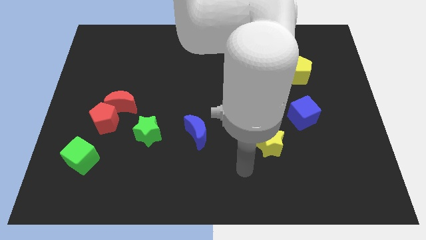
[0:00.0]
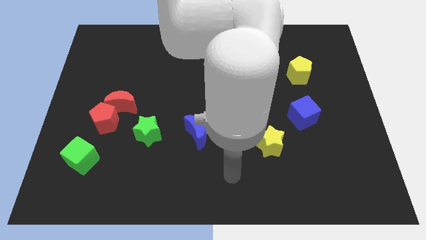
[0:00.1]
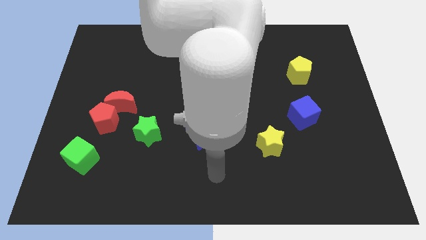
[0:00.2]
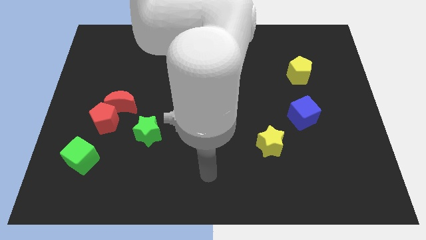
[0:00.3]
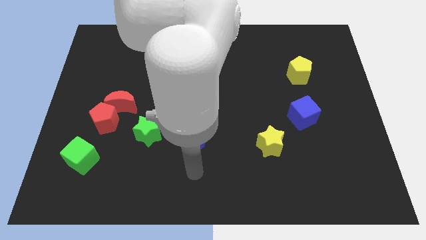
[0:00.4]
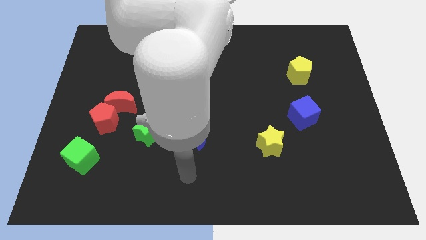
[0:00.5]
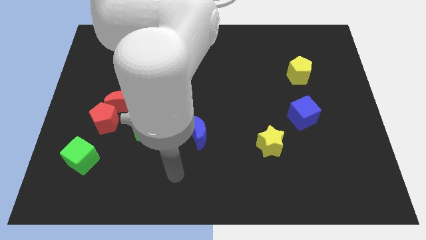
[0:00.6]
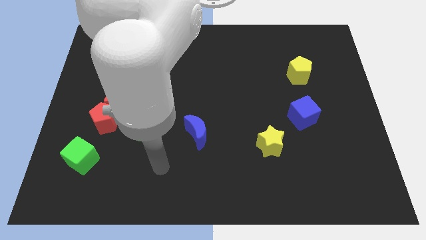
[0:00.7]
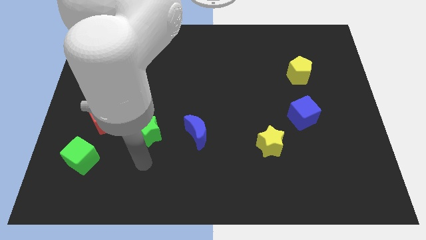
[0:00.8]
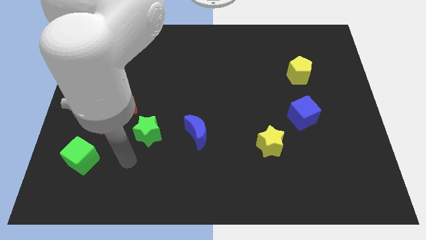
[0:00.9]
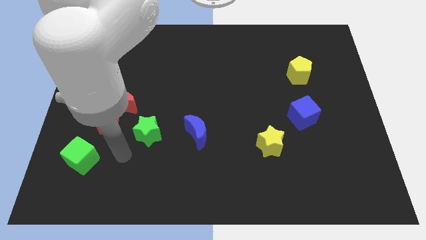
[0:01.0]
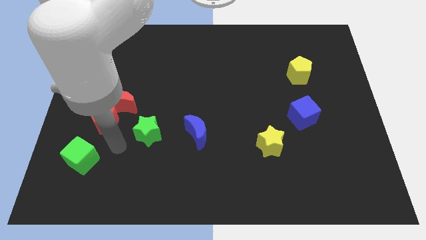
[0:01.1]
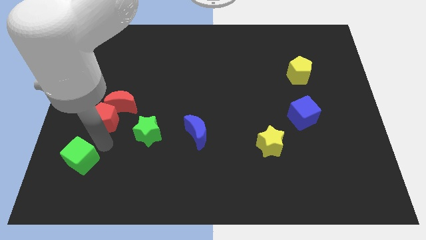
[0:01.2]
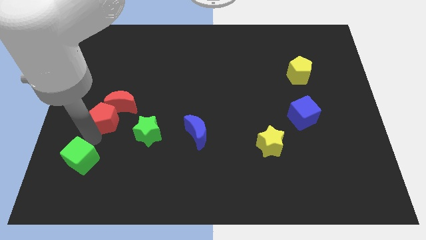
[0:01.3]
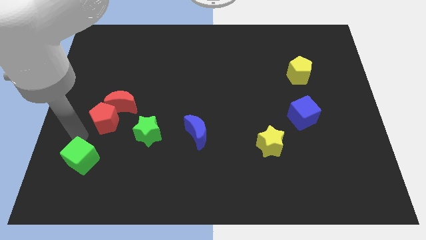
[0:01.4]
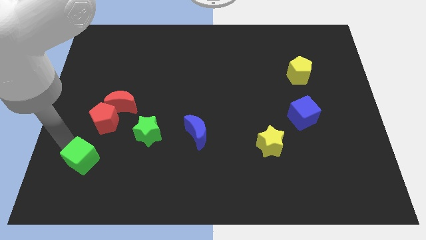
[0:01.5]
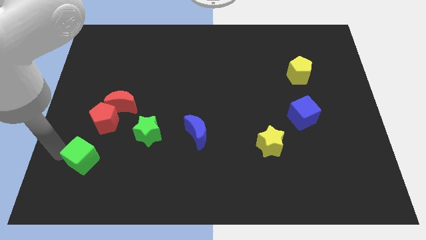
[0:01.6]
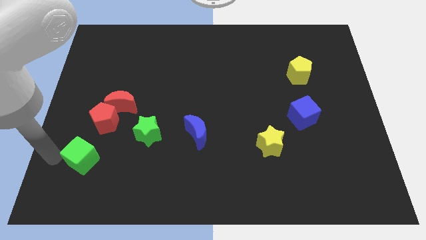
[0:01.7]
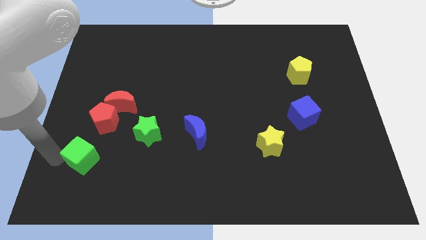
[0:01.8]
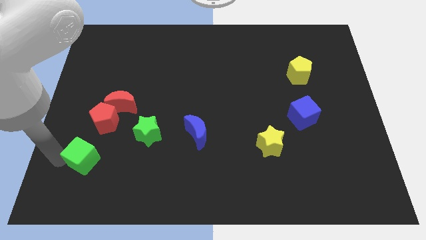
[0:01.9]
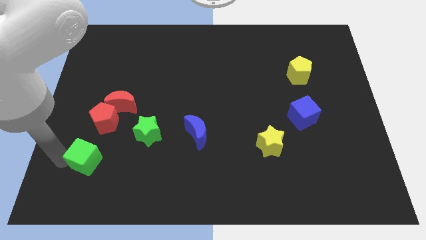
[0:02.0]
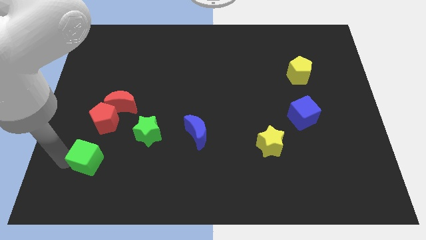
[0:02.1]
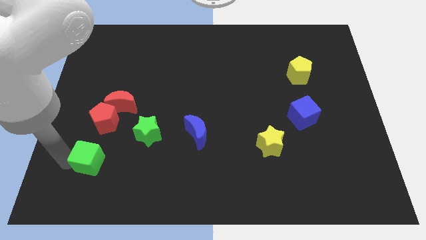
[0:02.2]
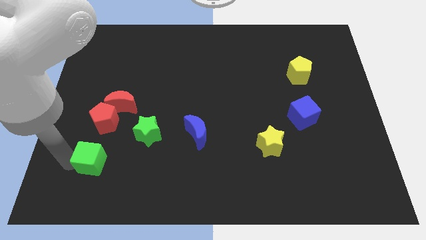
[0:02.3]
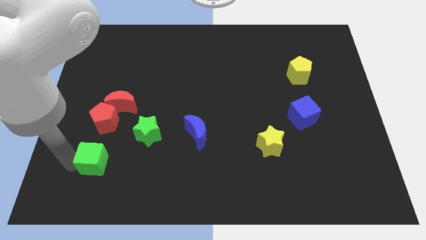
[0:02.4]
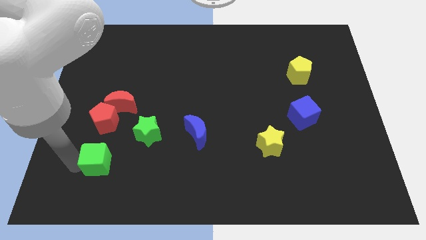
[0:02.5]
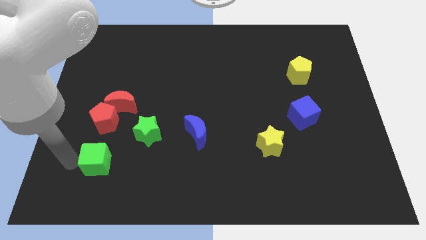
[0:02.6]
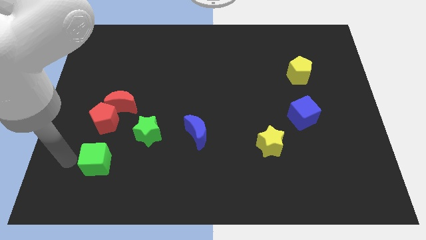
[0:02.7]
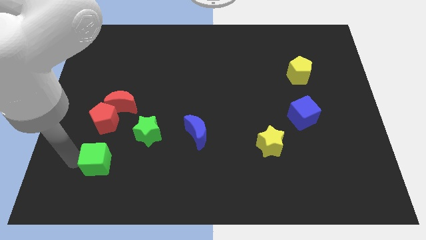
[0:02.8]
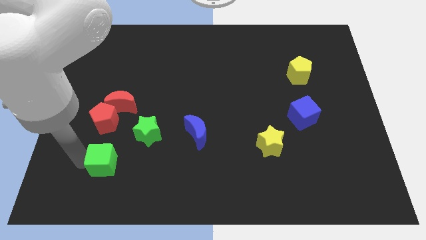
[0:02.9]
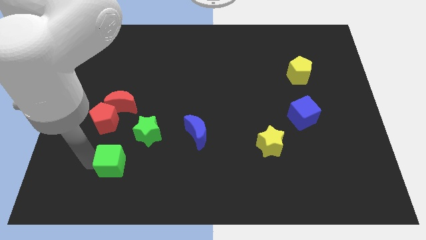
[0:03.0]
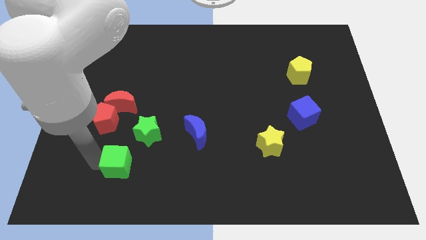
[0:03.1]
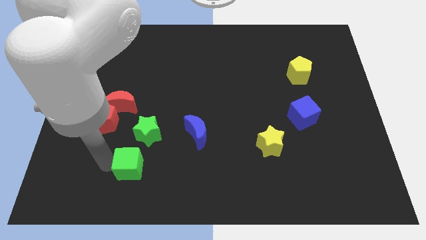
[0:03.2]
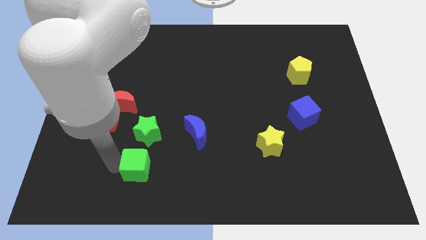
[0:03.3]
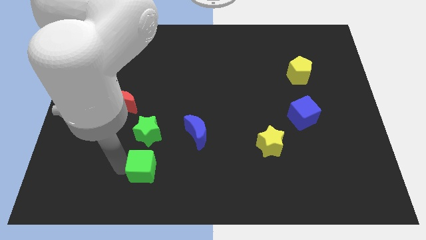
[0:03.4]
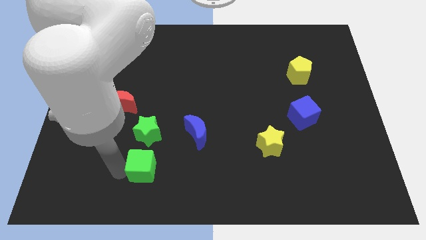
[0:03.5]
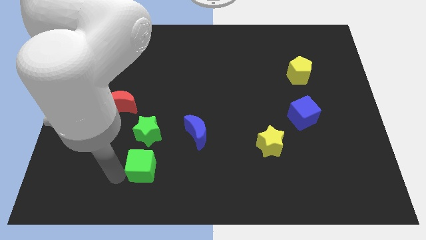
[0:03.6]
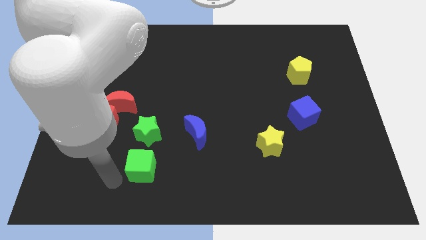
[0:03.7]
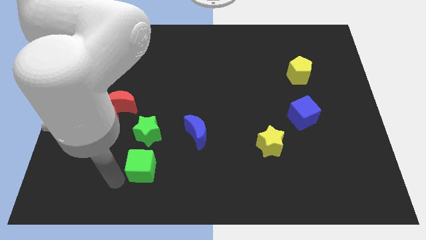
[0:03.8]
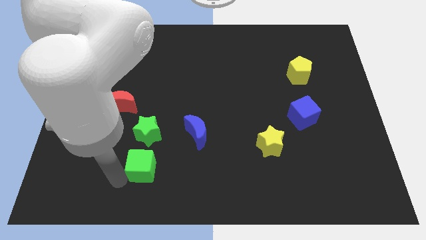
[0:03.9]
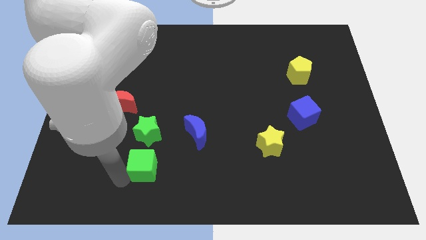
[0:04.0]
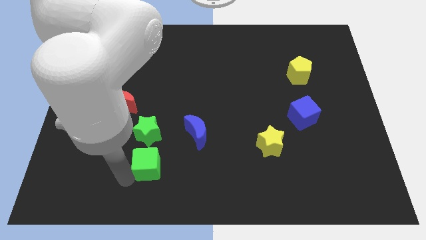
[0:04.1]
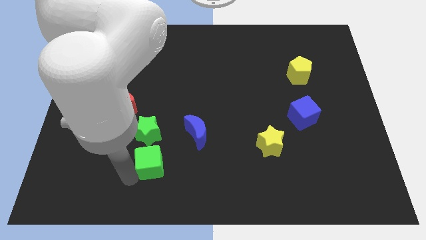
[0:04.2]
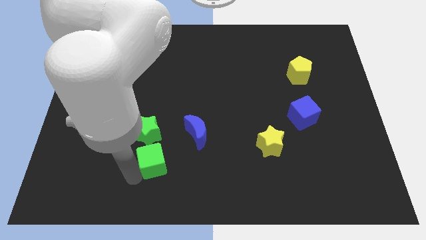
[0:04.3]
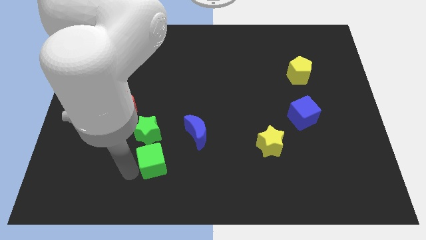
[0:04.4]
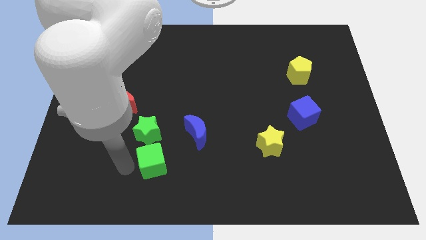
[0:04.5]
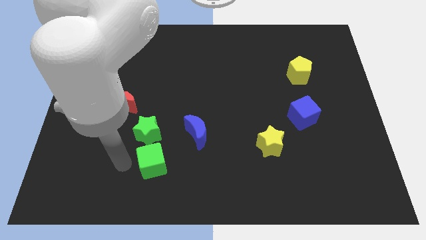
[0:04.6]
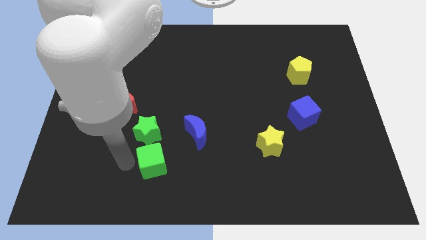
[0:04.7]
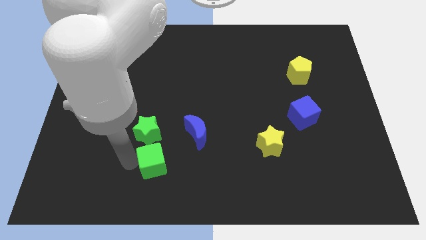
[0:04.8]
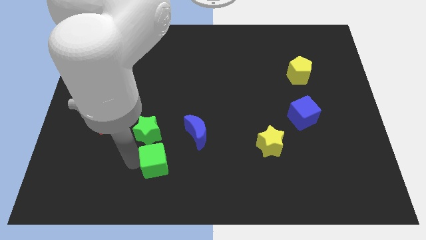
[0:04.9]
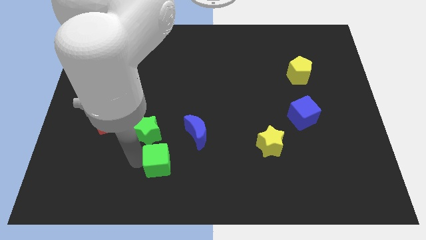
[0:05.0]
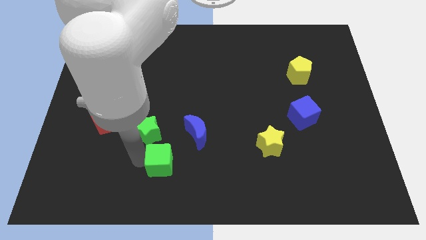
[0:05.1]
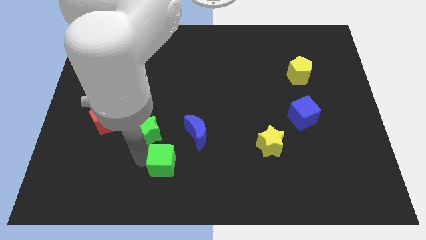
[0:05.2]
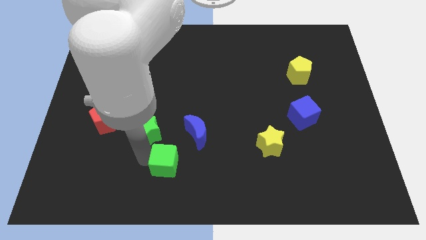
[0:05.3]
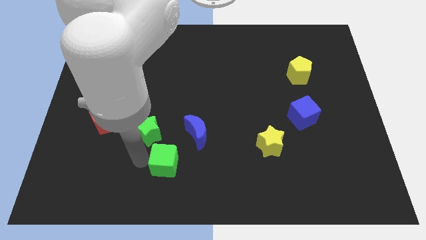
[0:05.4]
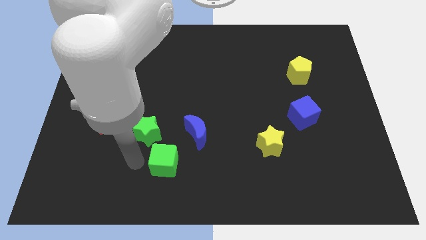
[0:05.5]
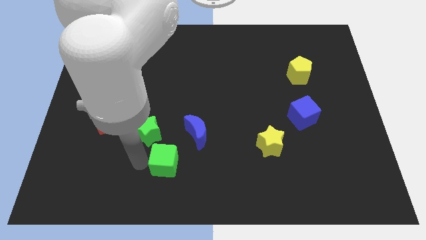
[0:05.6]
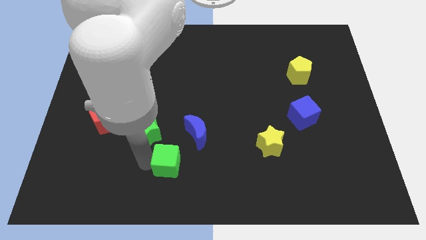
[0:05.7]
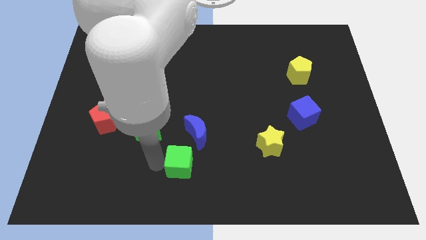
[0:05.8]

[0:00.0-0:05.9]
slide the green cube right

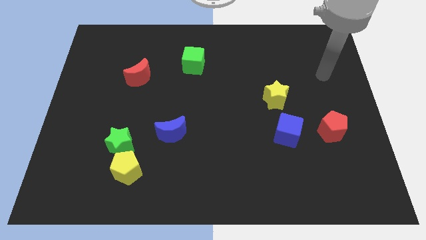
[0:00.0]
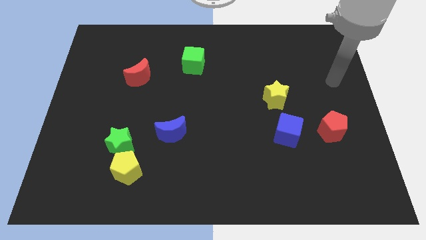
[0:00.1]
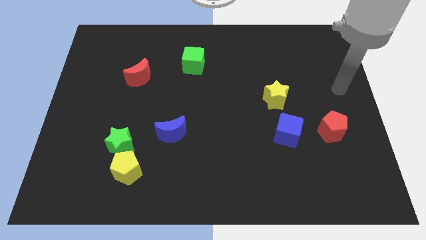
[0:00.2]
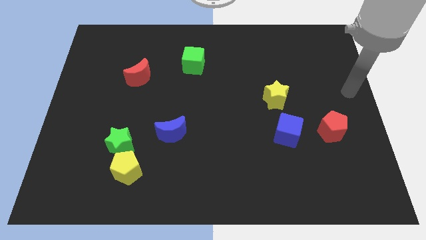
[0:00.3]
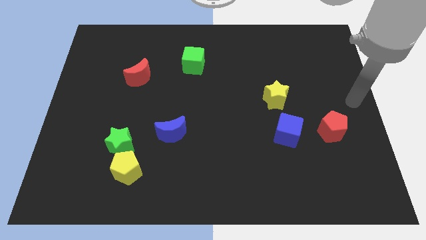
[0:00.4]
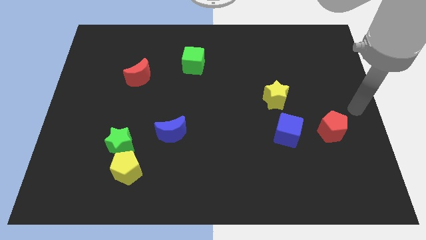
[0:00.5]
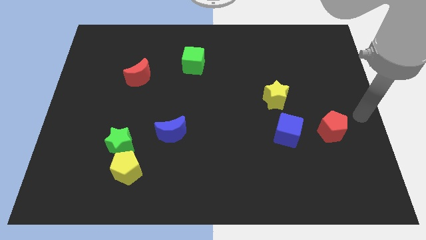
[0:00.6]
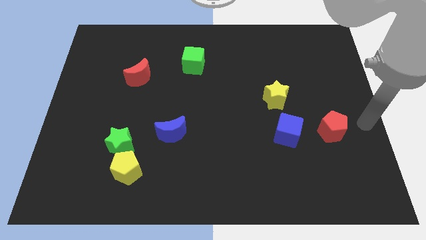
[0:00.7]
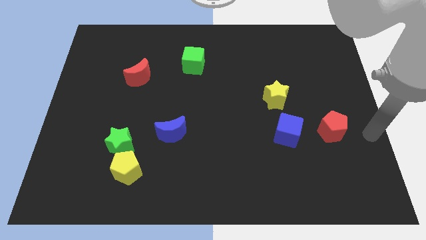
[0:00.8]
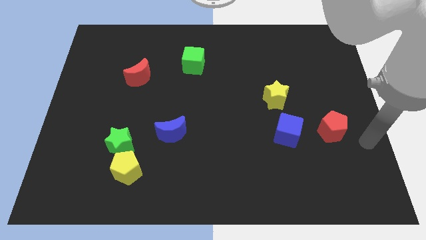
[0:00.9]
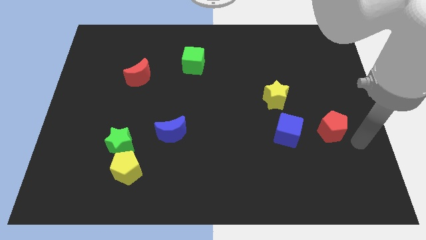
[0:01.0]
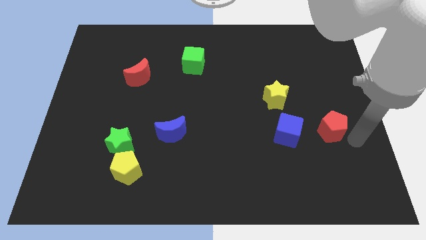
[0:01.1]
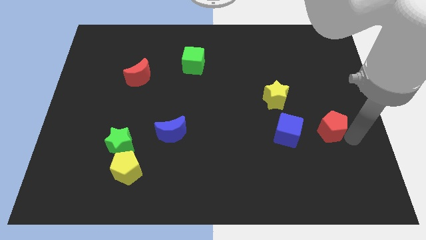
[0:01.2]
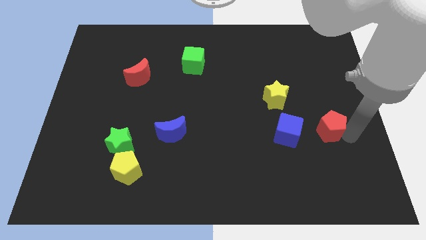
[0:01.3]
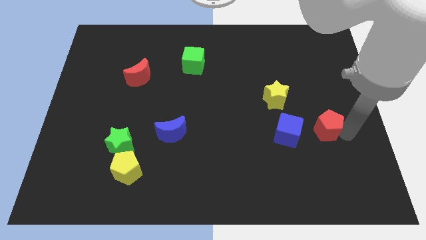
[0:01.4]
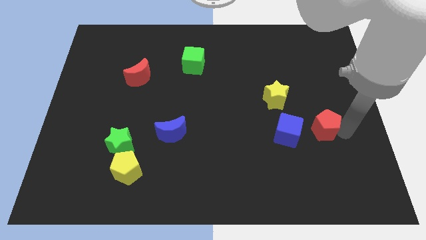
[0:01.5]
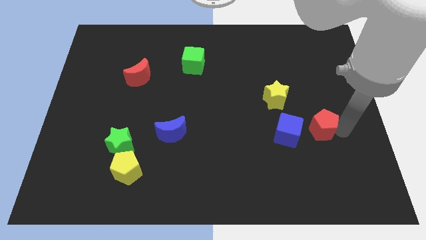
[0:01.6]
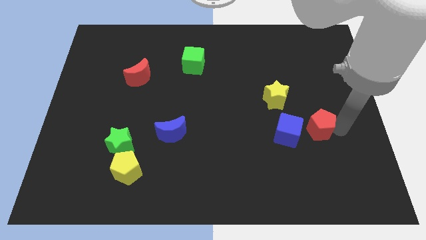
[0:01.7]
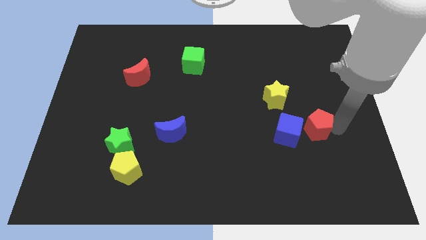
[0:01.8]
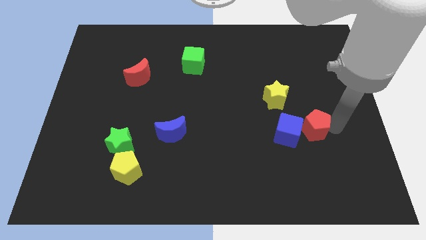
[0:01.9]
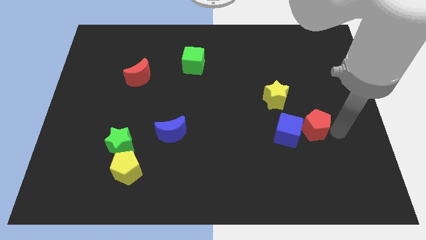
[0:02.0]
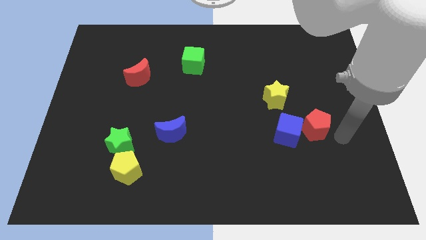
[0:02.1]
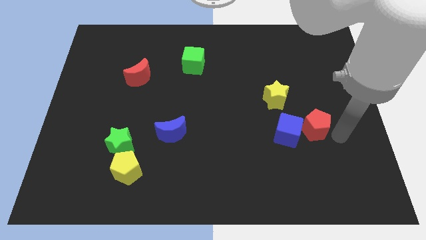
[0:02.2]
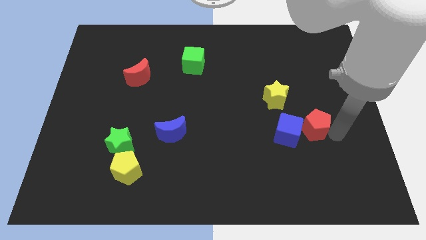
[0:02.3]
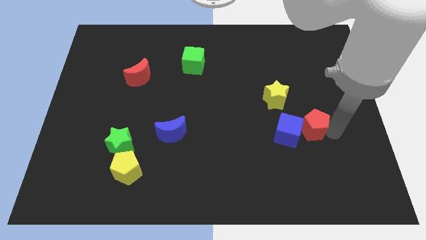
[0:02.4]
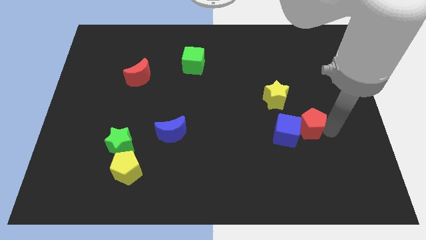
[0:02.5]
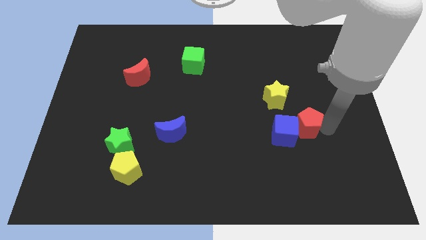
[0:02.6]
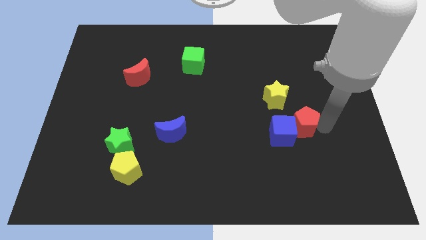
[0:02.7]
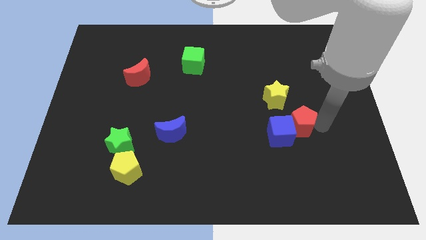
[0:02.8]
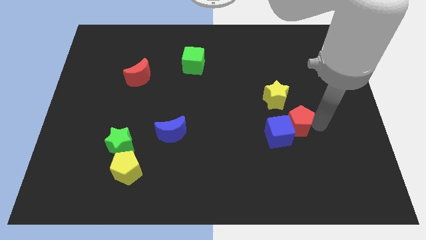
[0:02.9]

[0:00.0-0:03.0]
push the red pentagon somewhat to the left
